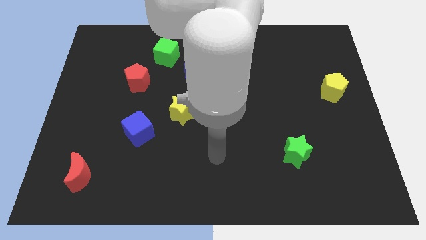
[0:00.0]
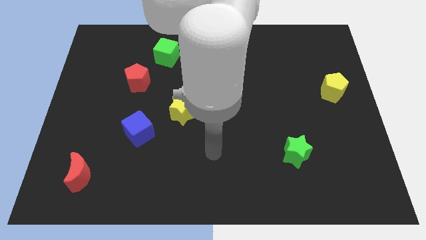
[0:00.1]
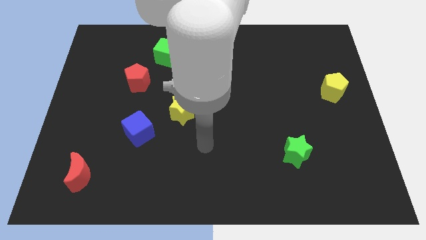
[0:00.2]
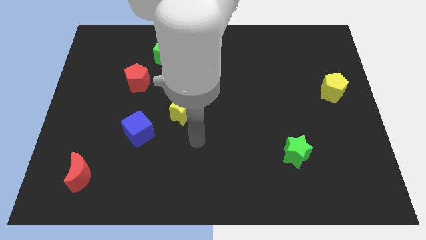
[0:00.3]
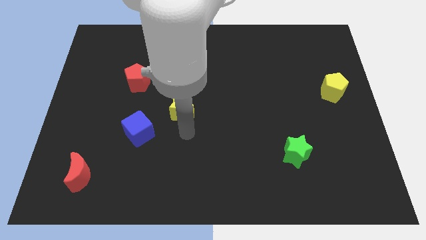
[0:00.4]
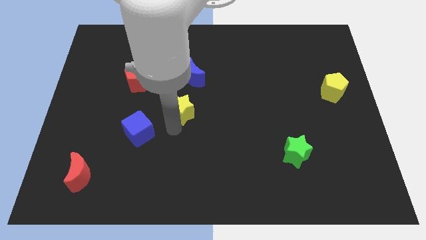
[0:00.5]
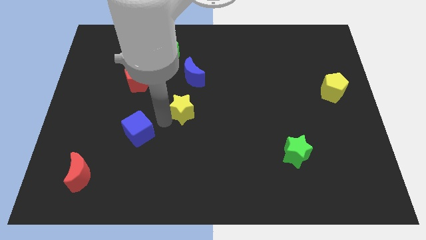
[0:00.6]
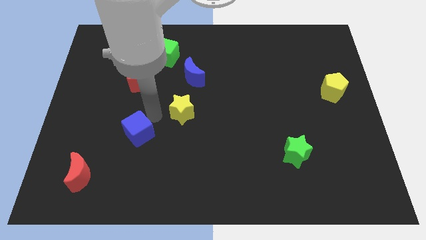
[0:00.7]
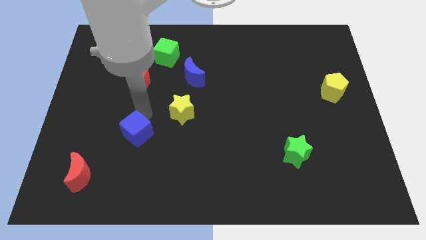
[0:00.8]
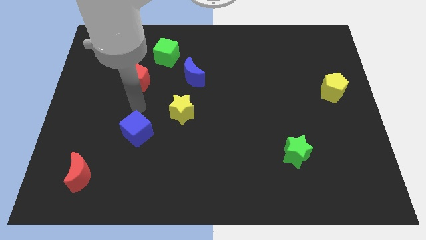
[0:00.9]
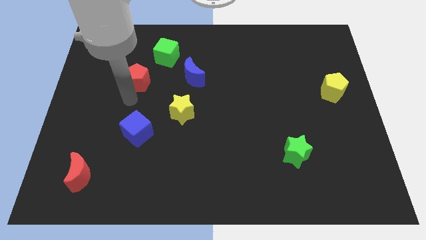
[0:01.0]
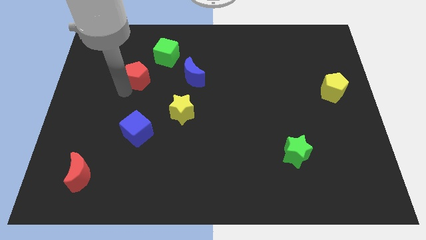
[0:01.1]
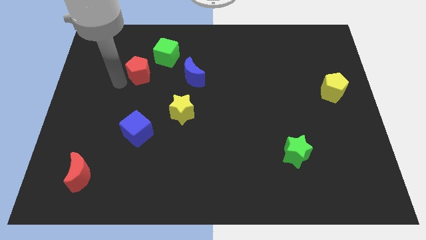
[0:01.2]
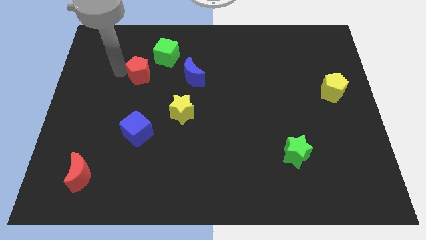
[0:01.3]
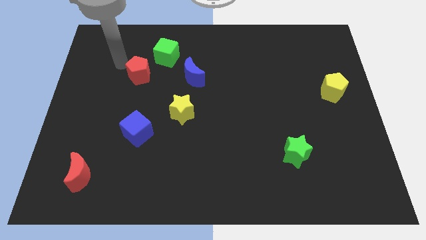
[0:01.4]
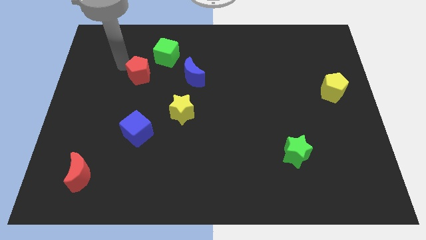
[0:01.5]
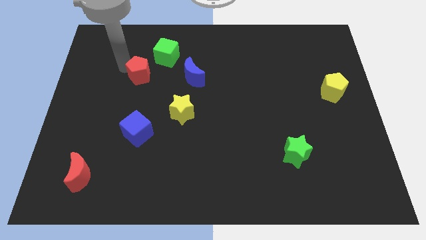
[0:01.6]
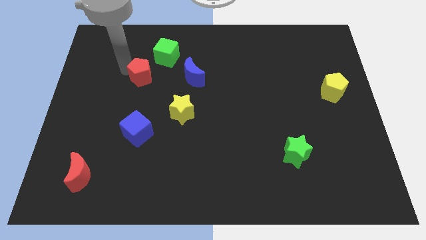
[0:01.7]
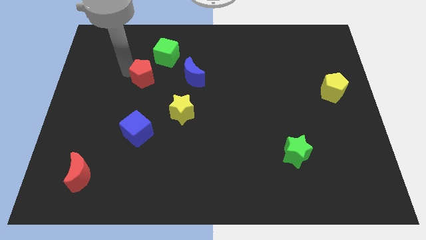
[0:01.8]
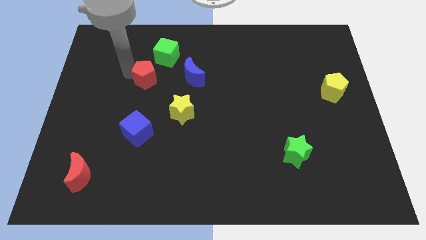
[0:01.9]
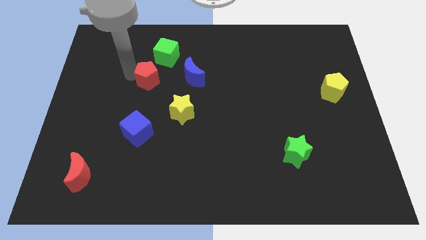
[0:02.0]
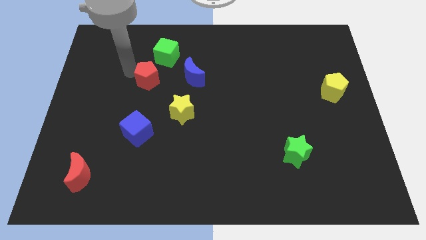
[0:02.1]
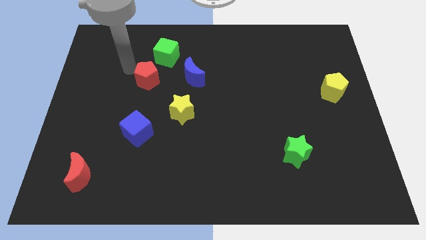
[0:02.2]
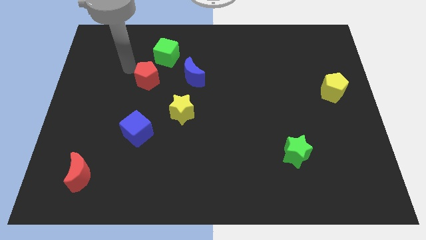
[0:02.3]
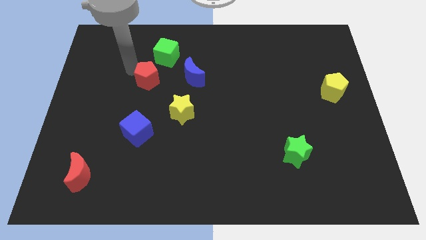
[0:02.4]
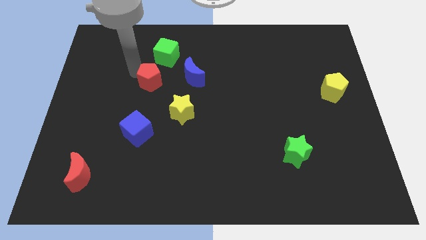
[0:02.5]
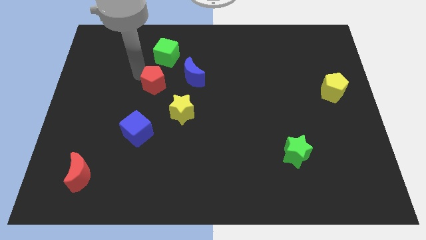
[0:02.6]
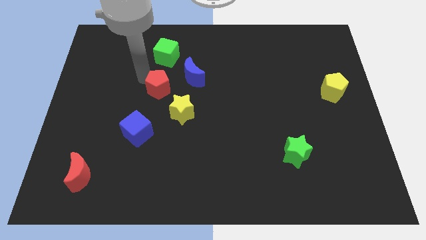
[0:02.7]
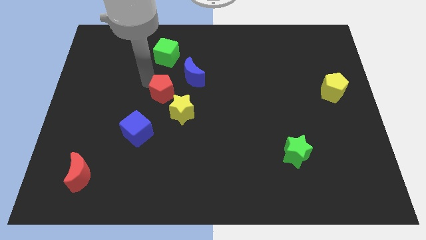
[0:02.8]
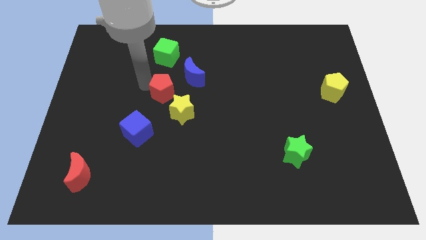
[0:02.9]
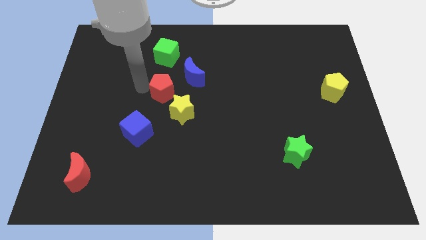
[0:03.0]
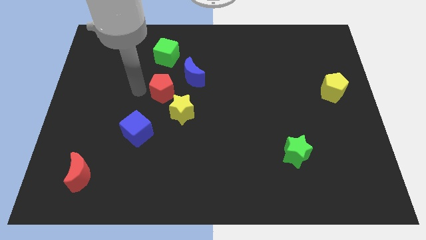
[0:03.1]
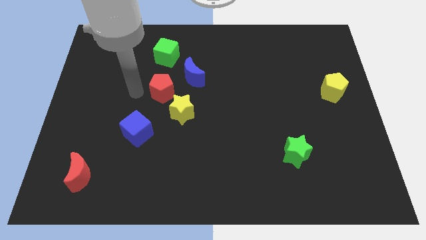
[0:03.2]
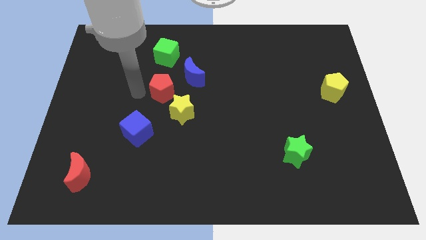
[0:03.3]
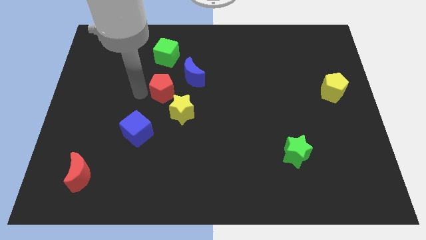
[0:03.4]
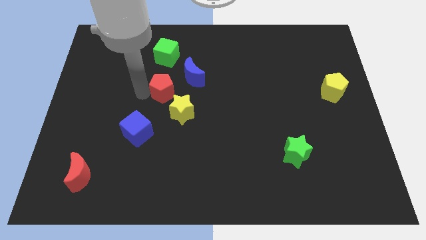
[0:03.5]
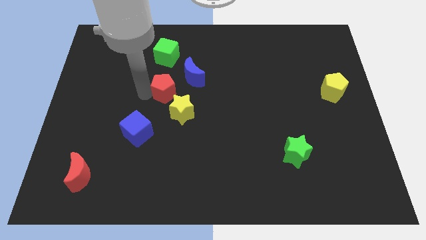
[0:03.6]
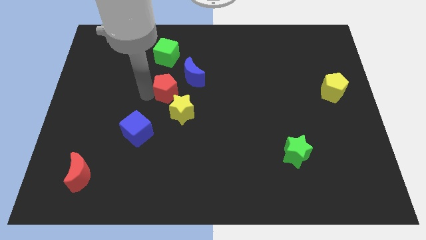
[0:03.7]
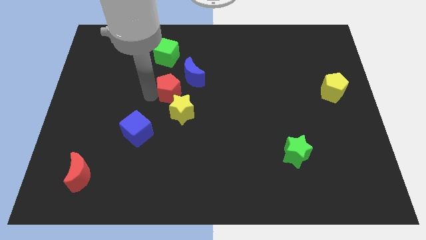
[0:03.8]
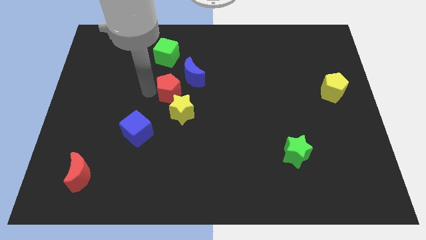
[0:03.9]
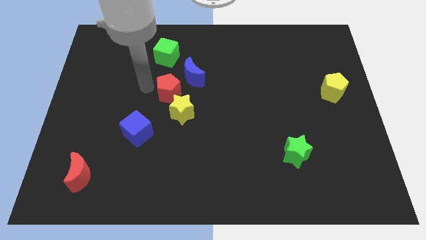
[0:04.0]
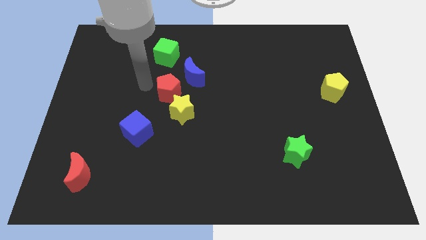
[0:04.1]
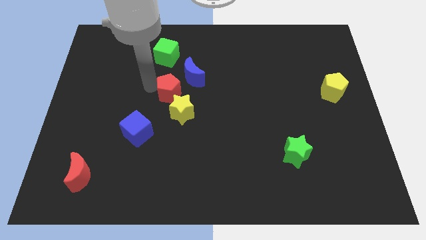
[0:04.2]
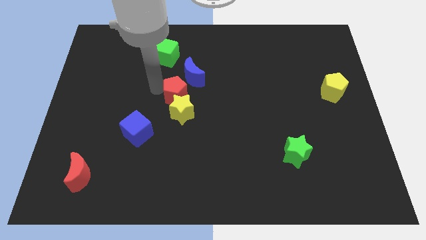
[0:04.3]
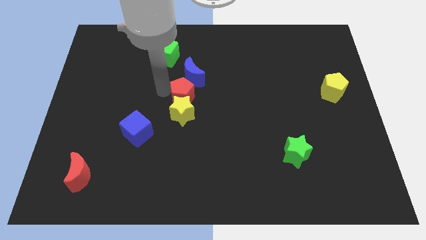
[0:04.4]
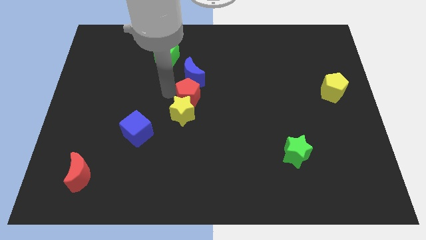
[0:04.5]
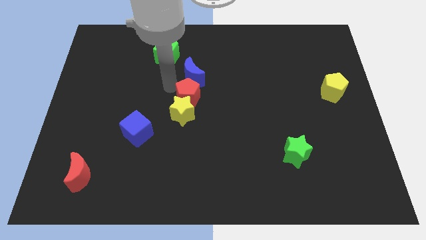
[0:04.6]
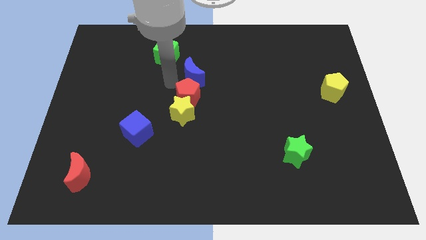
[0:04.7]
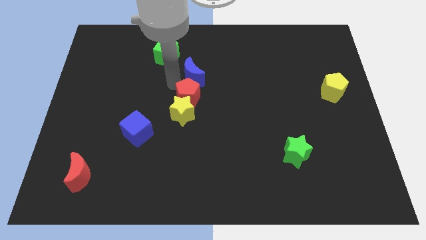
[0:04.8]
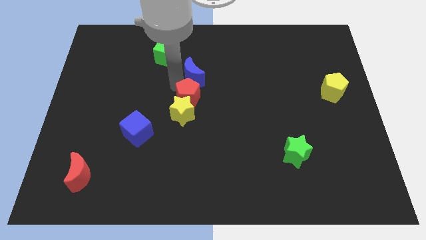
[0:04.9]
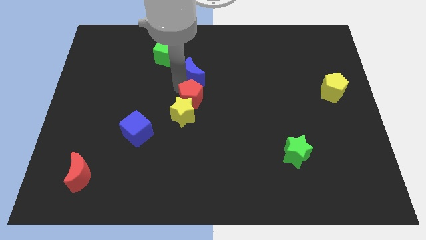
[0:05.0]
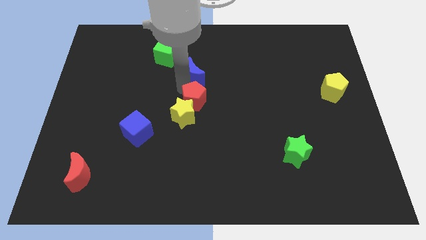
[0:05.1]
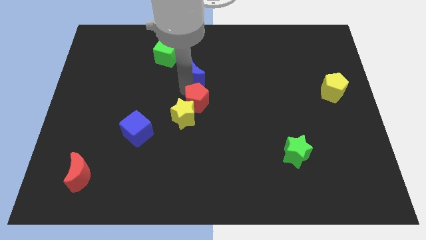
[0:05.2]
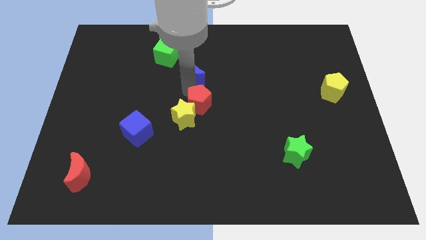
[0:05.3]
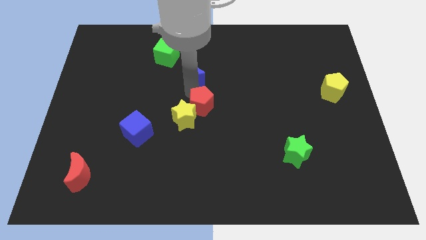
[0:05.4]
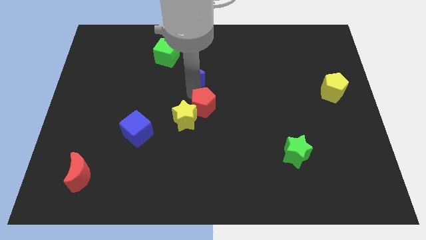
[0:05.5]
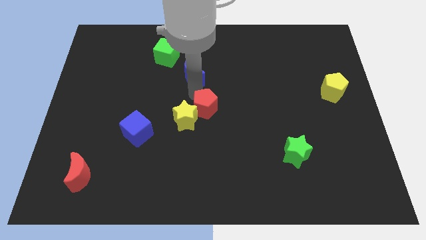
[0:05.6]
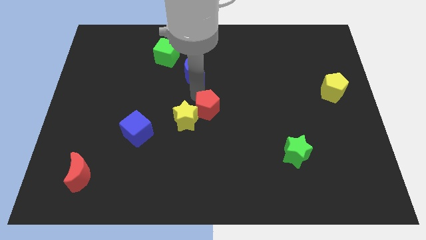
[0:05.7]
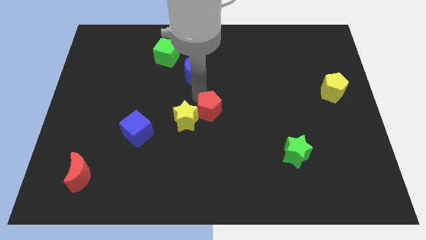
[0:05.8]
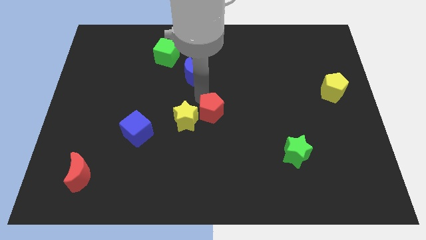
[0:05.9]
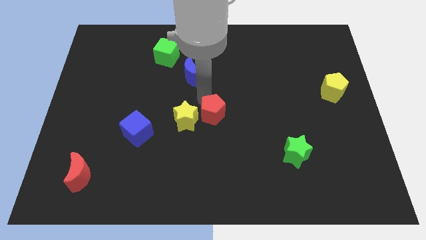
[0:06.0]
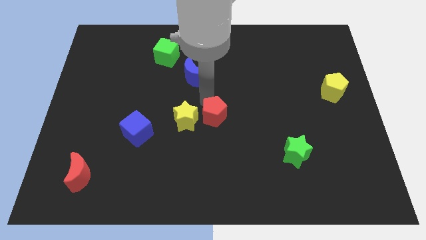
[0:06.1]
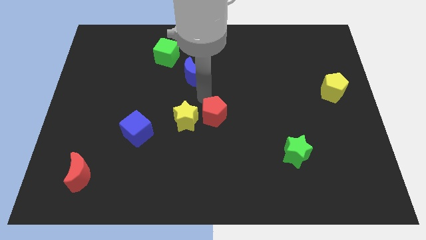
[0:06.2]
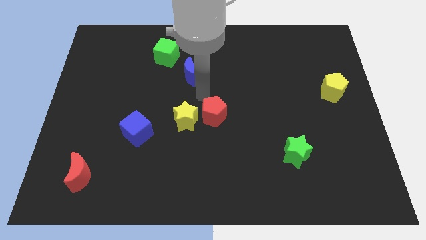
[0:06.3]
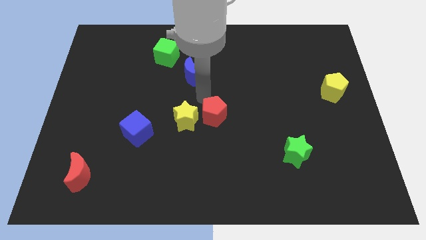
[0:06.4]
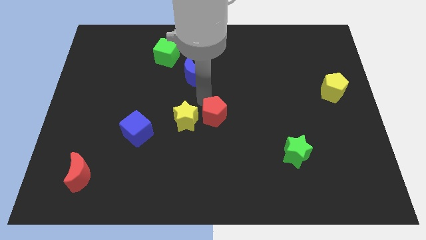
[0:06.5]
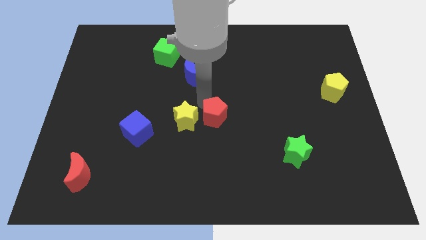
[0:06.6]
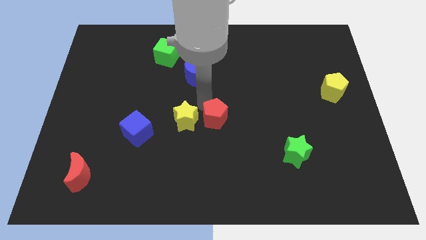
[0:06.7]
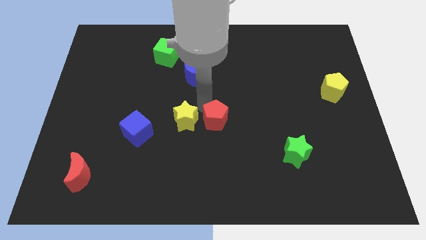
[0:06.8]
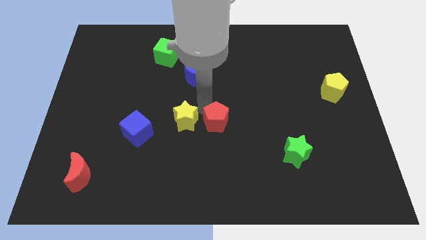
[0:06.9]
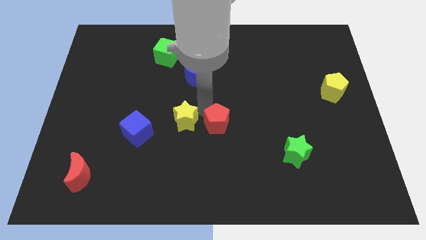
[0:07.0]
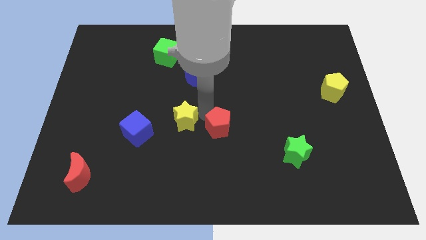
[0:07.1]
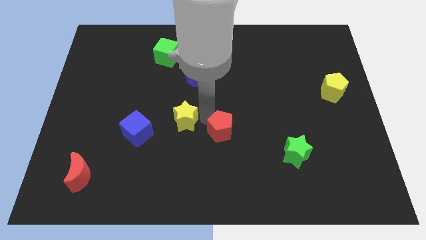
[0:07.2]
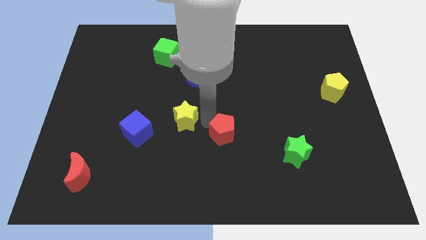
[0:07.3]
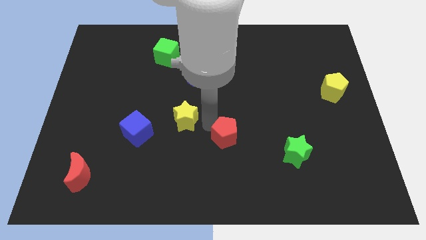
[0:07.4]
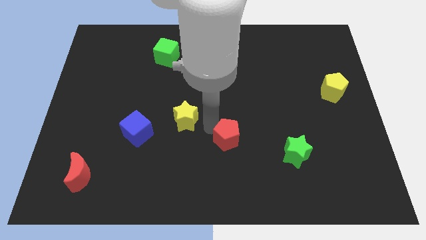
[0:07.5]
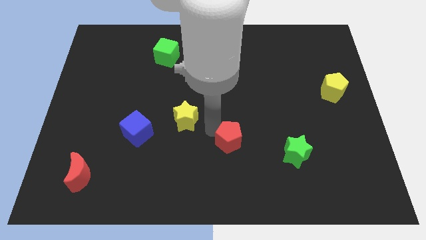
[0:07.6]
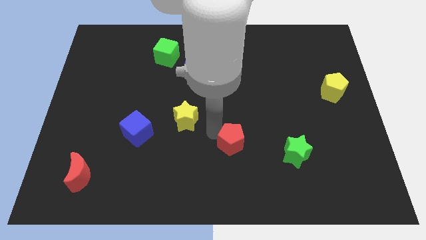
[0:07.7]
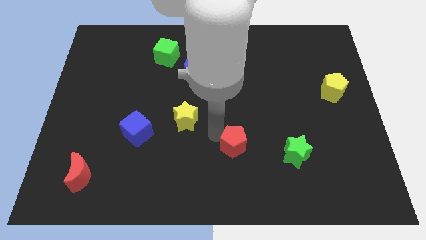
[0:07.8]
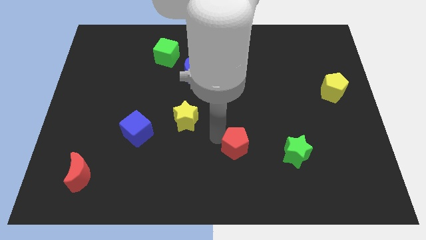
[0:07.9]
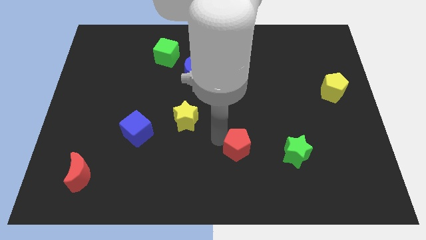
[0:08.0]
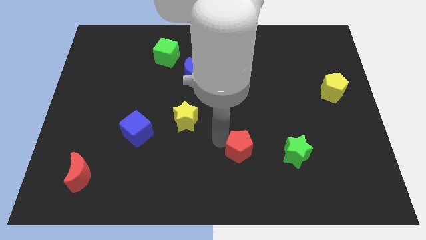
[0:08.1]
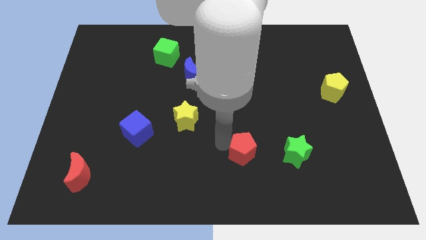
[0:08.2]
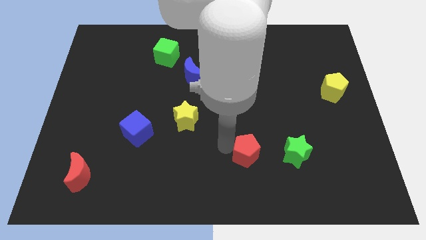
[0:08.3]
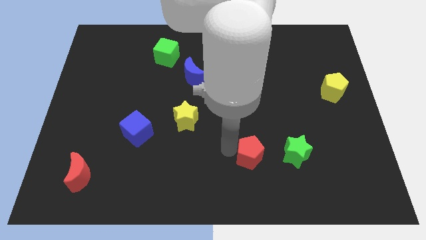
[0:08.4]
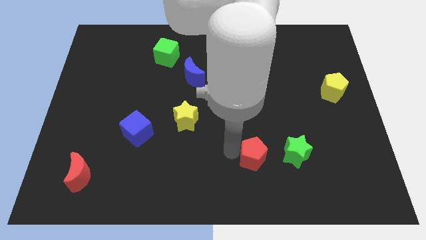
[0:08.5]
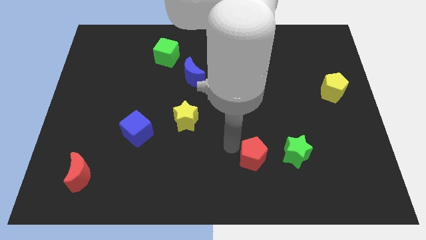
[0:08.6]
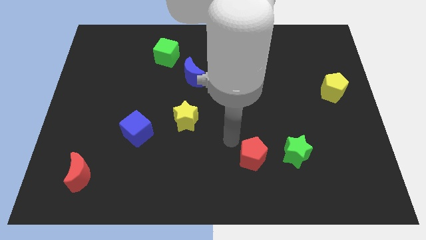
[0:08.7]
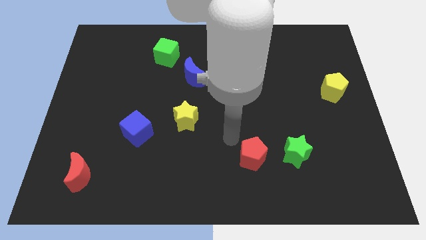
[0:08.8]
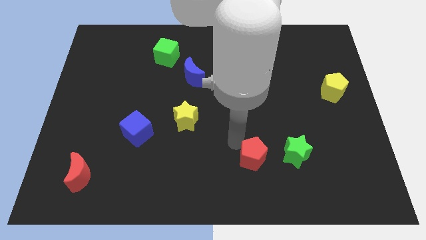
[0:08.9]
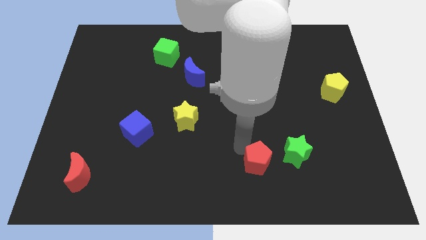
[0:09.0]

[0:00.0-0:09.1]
slide the red pentagon diagonally down and to the left of the green star
